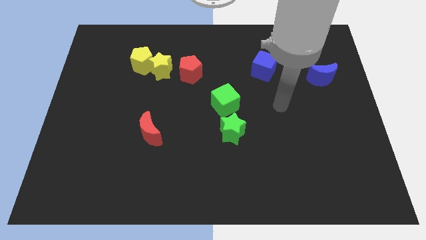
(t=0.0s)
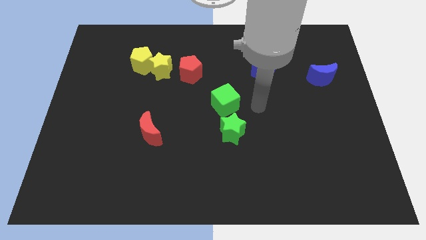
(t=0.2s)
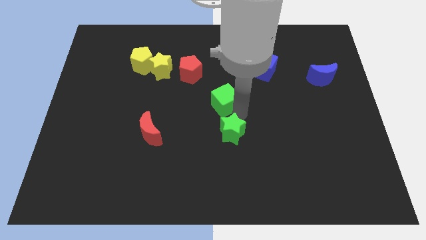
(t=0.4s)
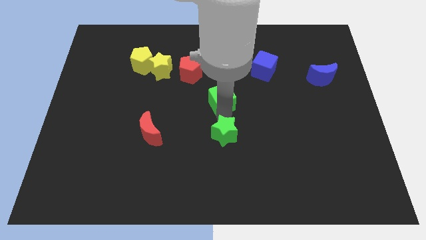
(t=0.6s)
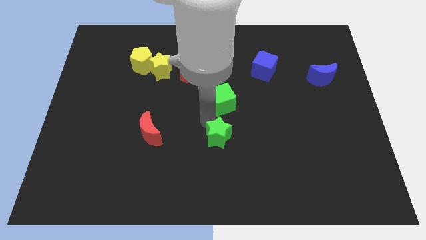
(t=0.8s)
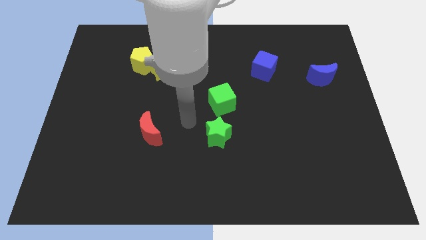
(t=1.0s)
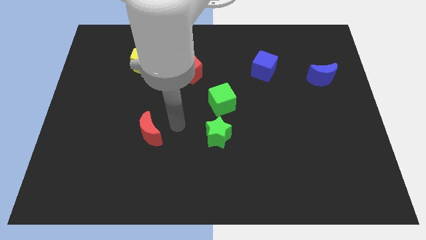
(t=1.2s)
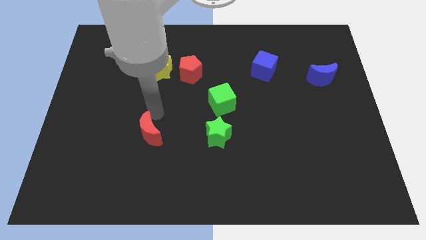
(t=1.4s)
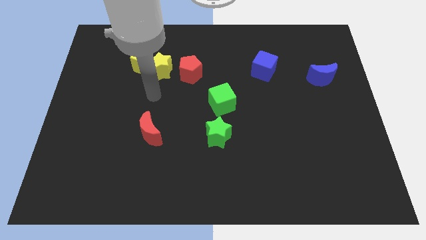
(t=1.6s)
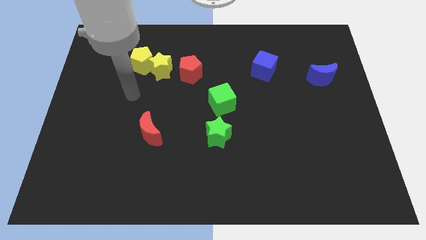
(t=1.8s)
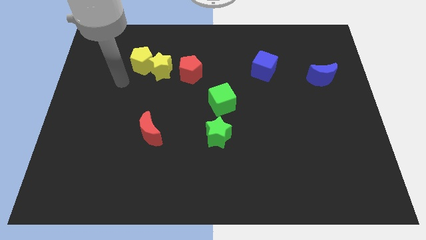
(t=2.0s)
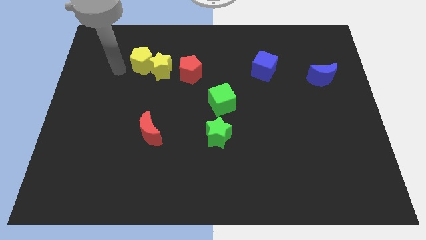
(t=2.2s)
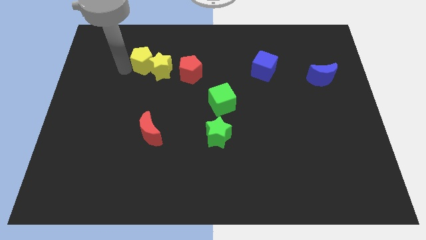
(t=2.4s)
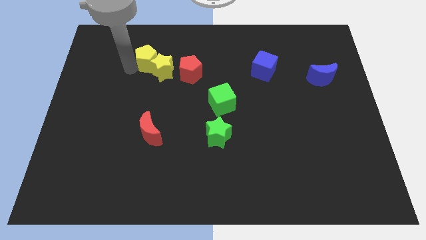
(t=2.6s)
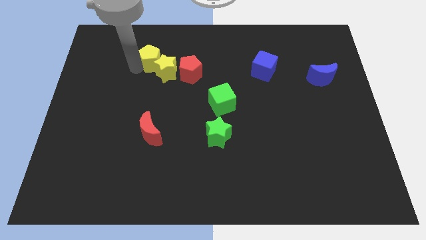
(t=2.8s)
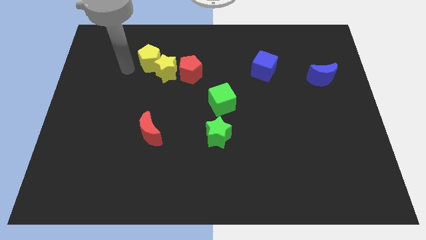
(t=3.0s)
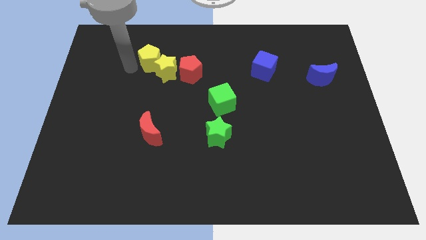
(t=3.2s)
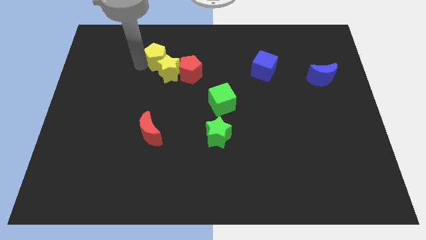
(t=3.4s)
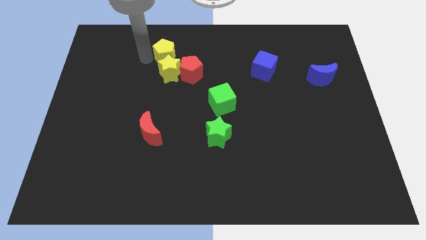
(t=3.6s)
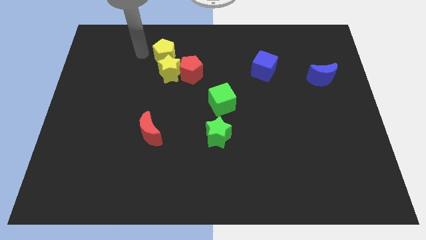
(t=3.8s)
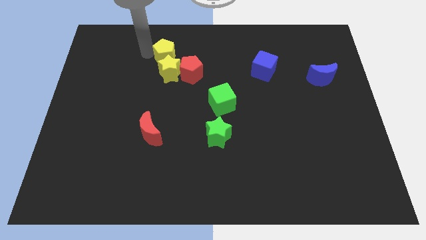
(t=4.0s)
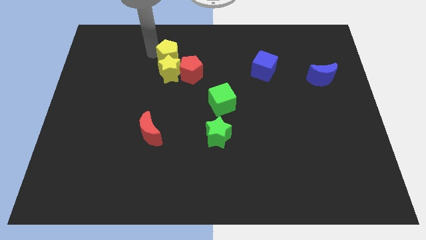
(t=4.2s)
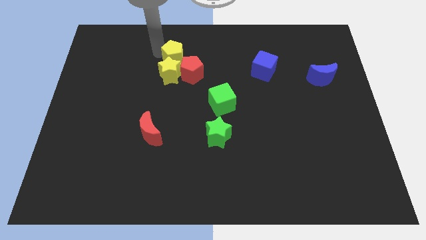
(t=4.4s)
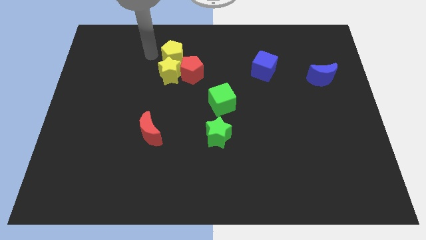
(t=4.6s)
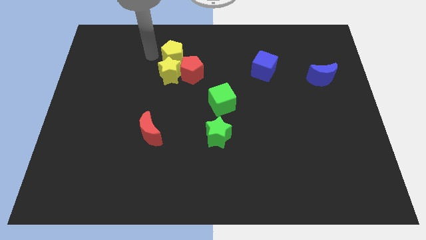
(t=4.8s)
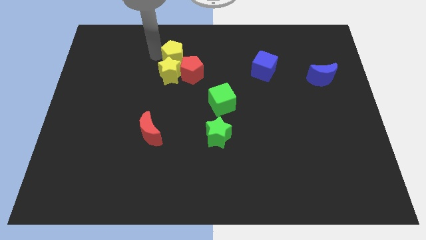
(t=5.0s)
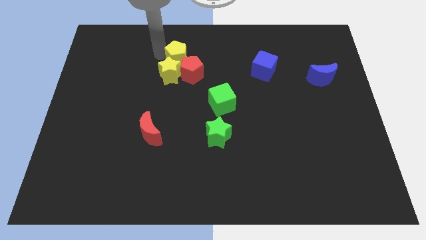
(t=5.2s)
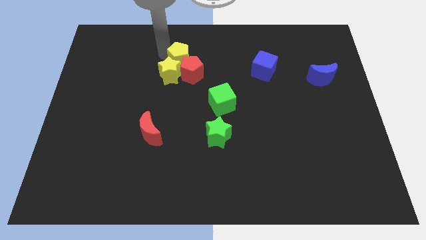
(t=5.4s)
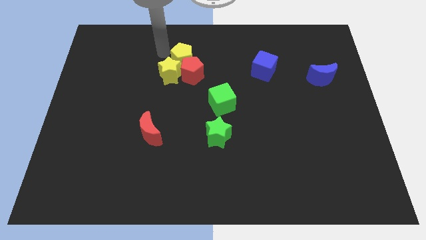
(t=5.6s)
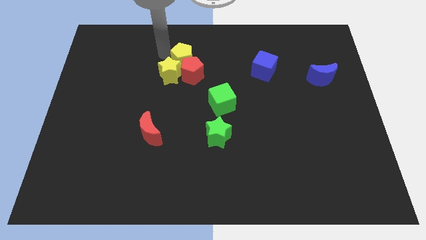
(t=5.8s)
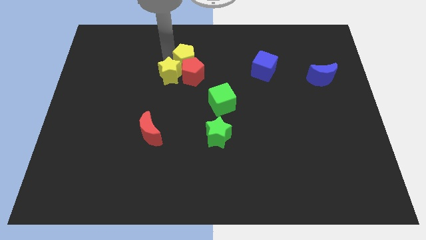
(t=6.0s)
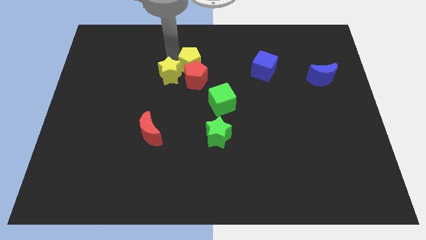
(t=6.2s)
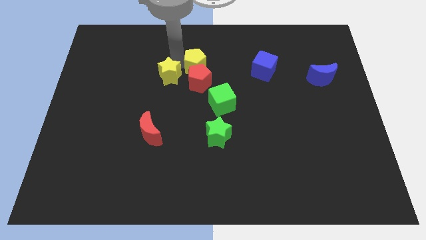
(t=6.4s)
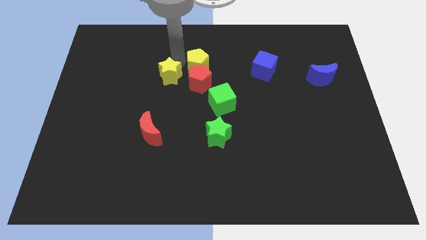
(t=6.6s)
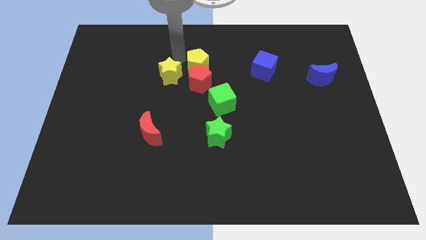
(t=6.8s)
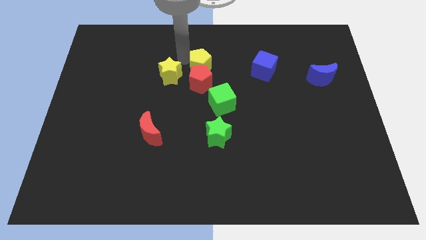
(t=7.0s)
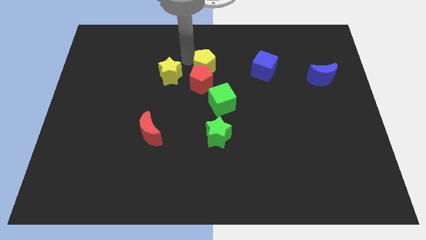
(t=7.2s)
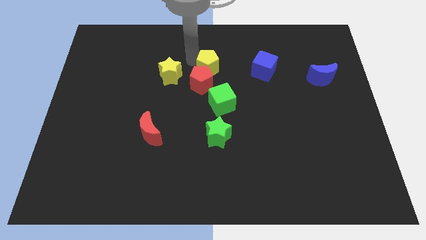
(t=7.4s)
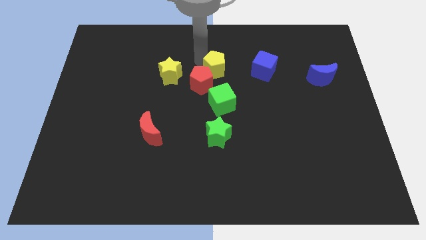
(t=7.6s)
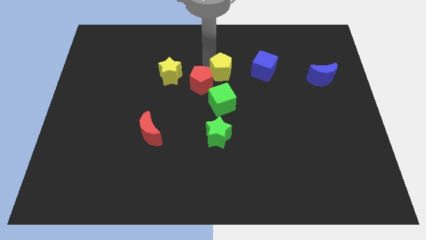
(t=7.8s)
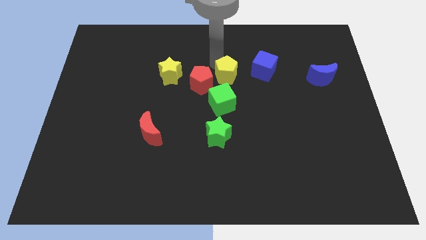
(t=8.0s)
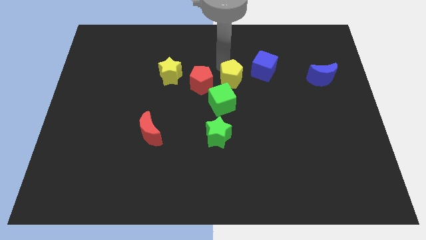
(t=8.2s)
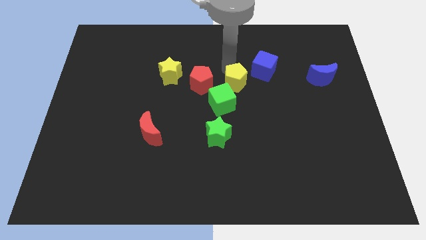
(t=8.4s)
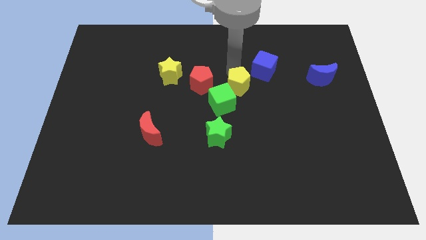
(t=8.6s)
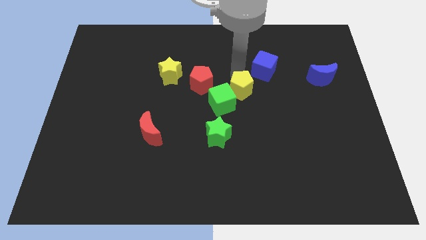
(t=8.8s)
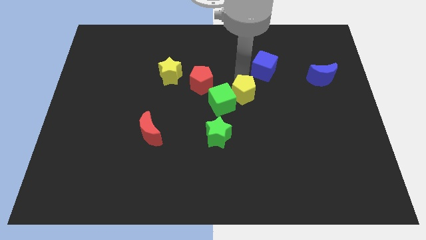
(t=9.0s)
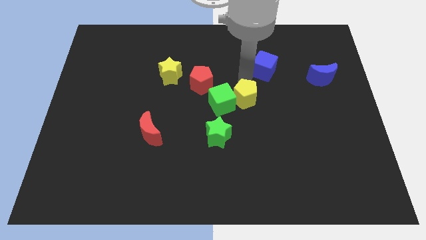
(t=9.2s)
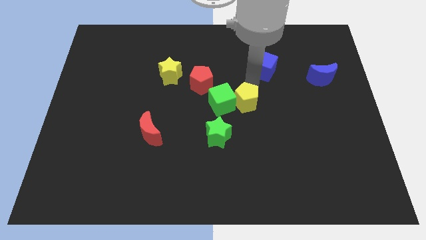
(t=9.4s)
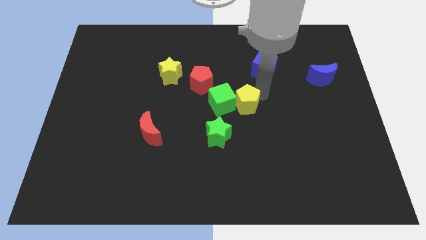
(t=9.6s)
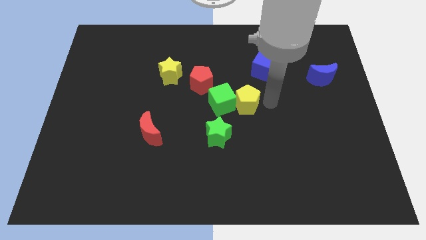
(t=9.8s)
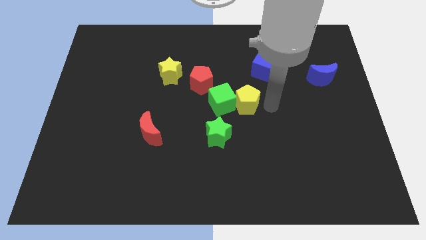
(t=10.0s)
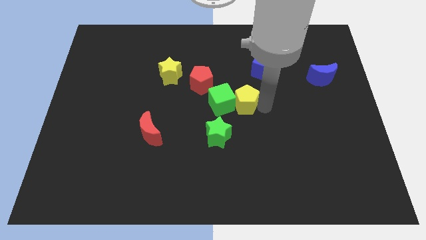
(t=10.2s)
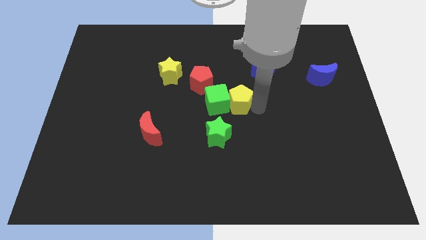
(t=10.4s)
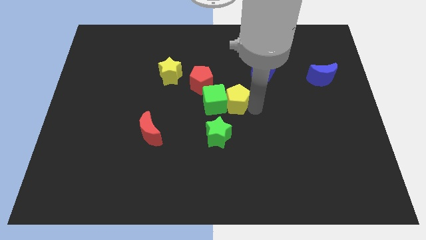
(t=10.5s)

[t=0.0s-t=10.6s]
put the yellow pentagon to the top side of the green star

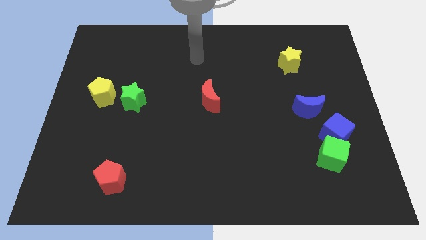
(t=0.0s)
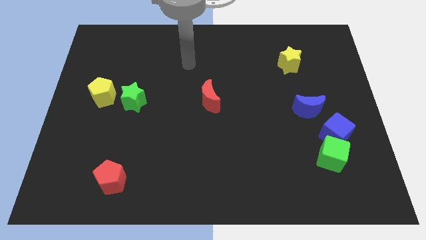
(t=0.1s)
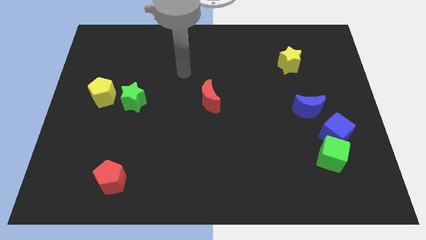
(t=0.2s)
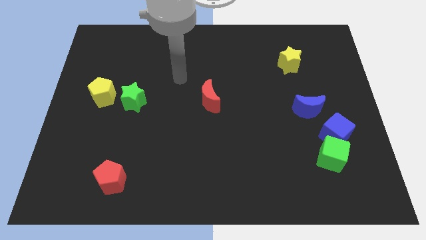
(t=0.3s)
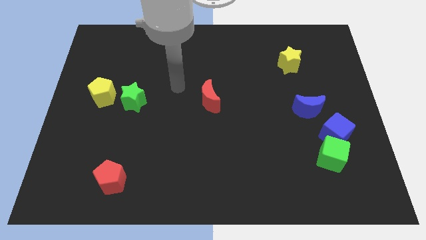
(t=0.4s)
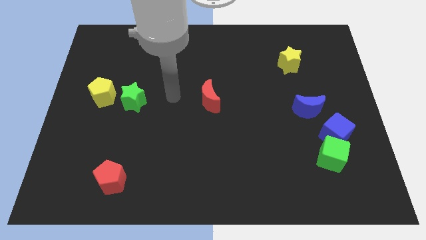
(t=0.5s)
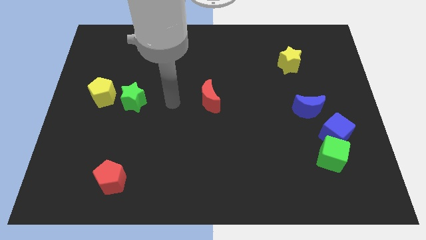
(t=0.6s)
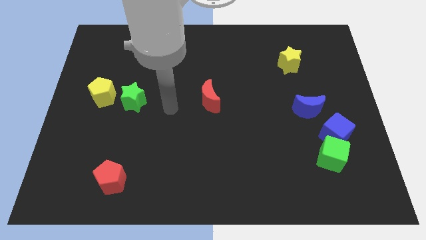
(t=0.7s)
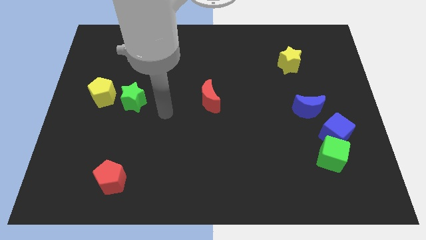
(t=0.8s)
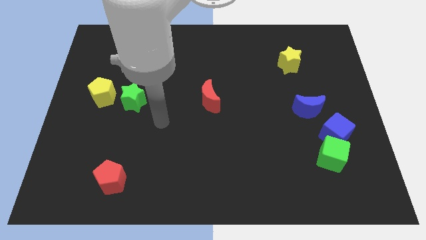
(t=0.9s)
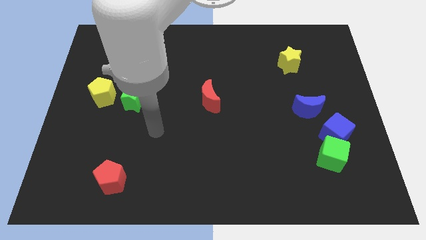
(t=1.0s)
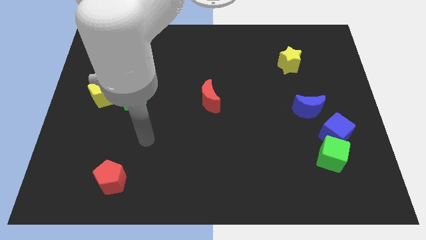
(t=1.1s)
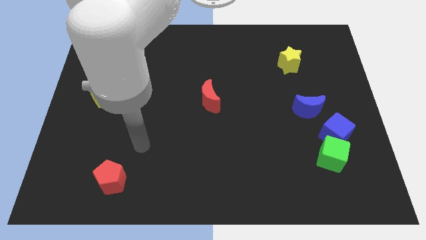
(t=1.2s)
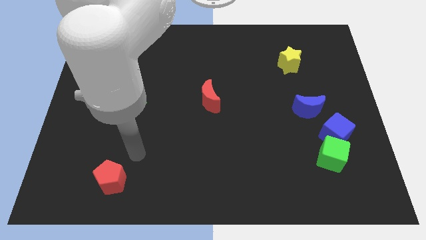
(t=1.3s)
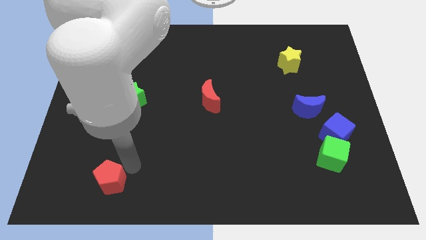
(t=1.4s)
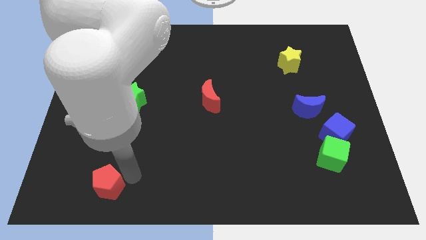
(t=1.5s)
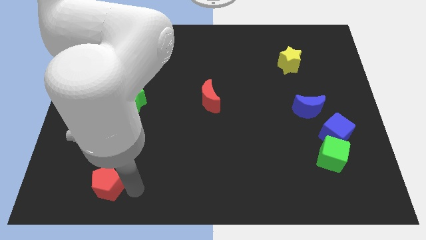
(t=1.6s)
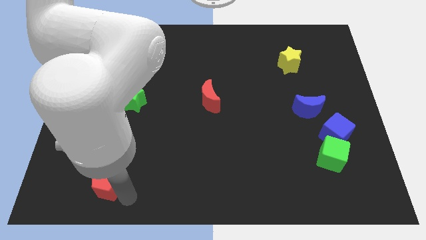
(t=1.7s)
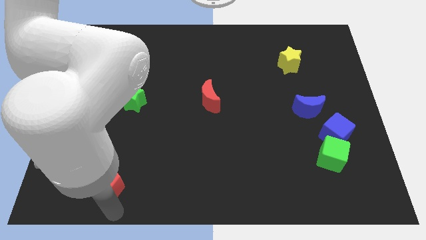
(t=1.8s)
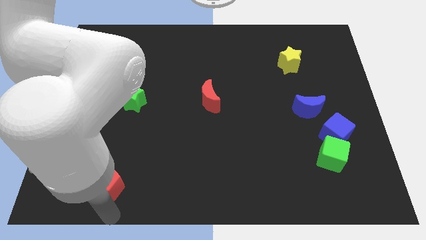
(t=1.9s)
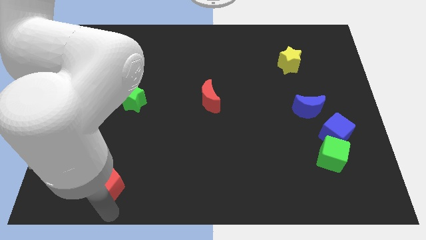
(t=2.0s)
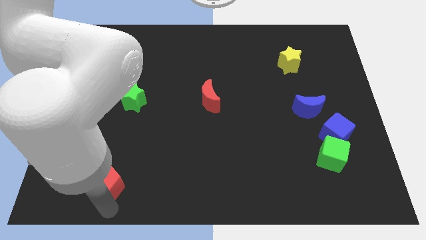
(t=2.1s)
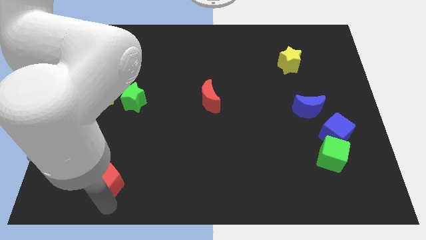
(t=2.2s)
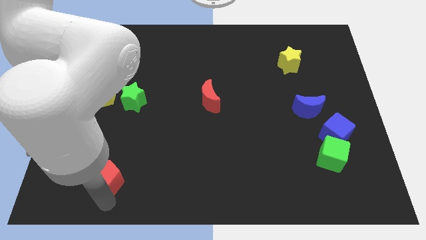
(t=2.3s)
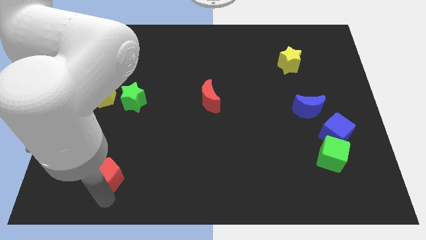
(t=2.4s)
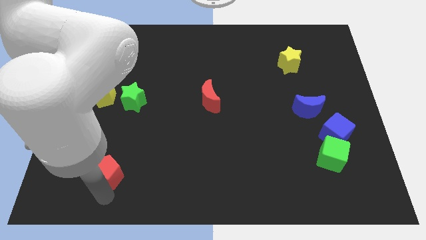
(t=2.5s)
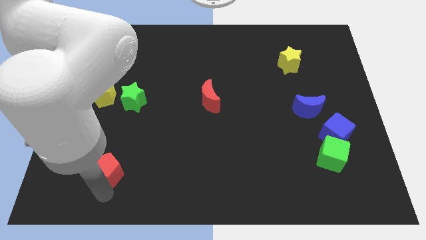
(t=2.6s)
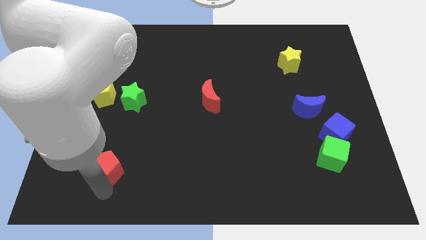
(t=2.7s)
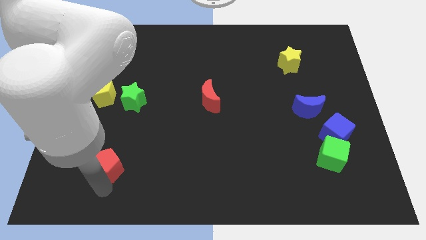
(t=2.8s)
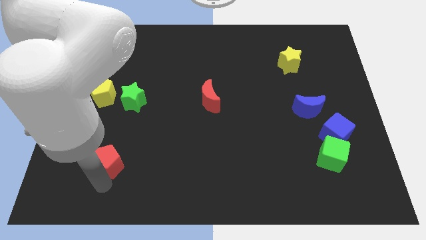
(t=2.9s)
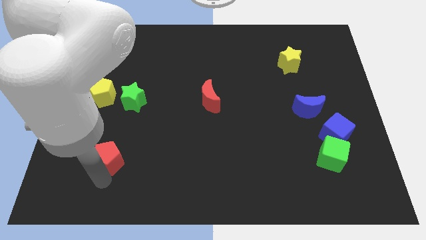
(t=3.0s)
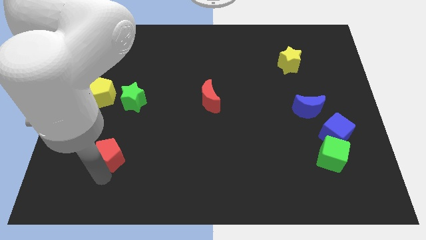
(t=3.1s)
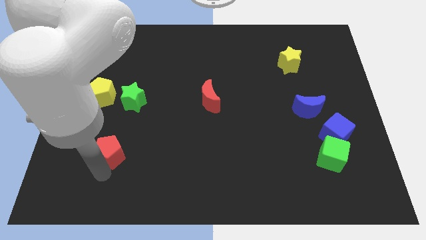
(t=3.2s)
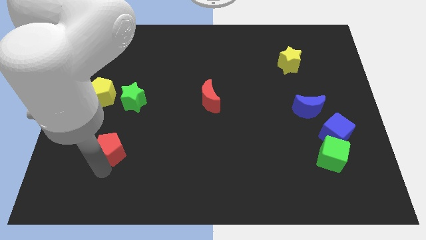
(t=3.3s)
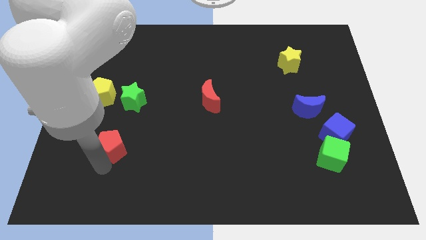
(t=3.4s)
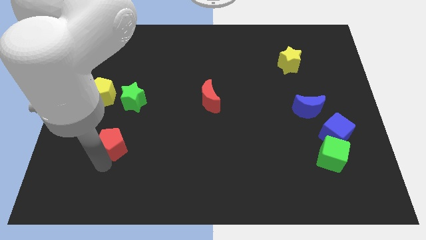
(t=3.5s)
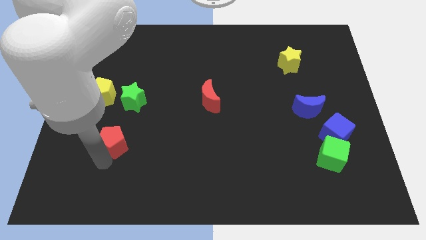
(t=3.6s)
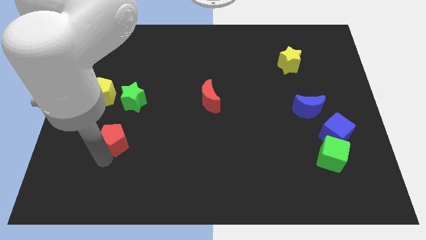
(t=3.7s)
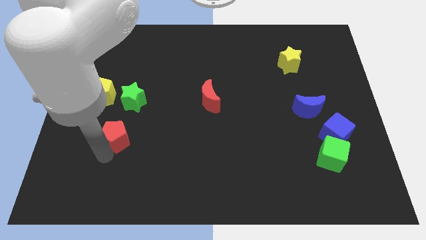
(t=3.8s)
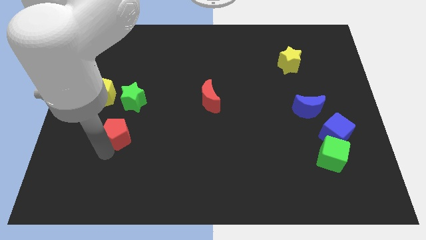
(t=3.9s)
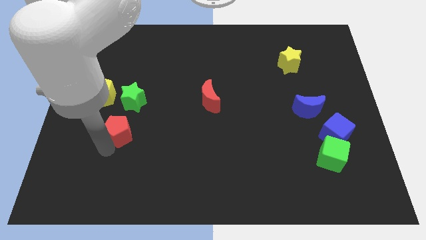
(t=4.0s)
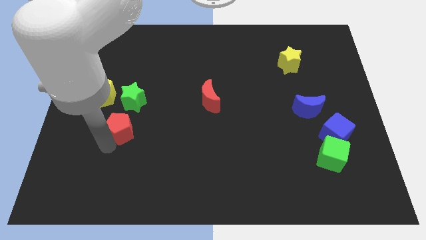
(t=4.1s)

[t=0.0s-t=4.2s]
slide the red pentagon to the bottom right of the yellow pentagon
